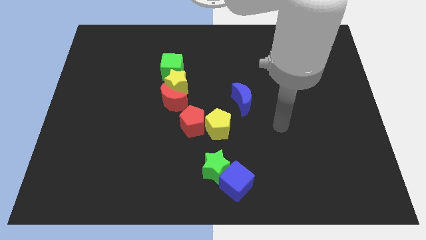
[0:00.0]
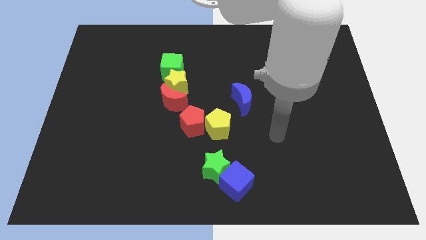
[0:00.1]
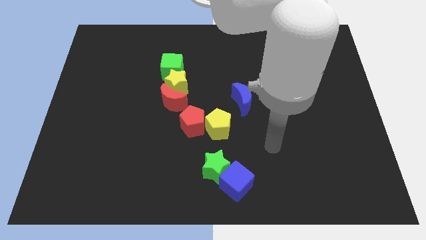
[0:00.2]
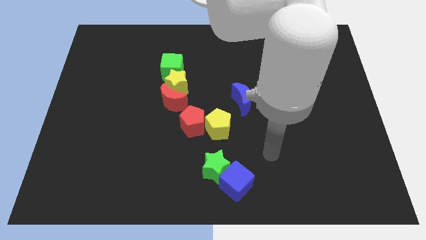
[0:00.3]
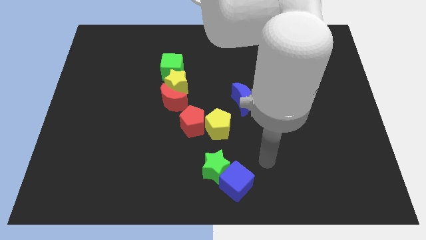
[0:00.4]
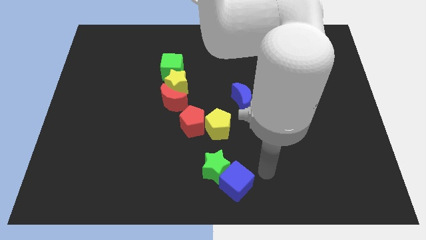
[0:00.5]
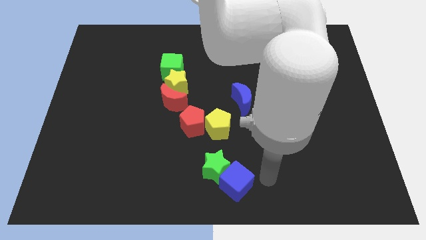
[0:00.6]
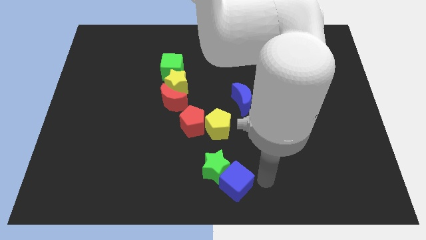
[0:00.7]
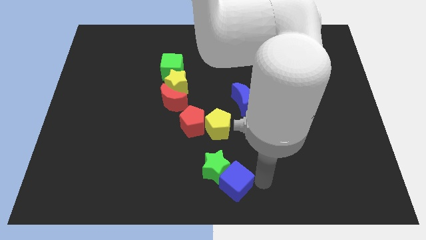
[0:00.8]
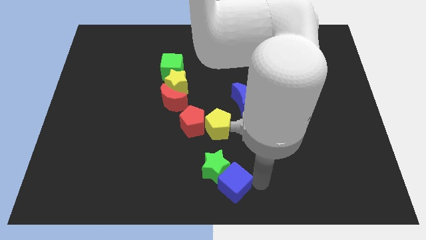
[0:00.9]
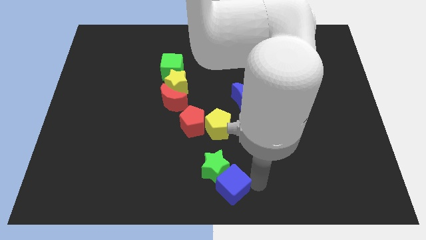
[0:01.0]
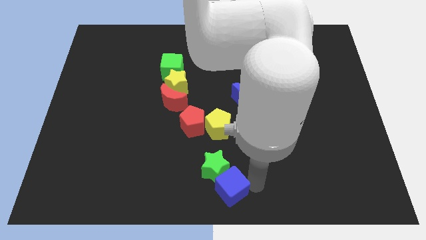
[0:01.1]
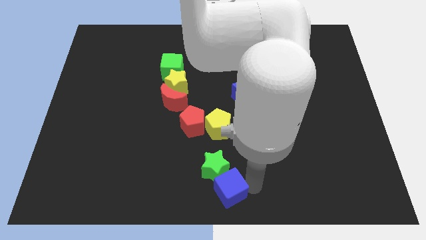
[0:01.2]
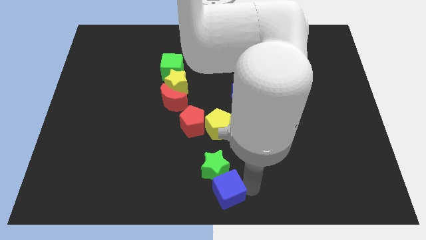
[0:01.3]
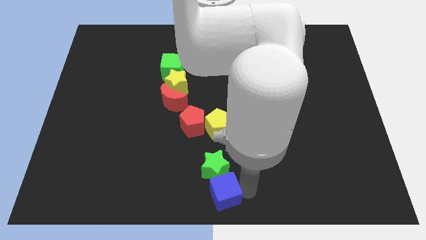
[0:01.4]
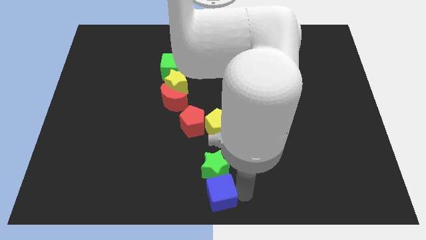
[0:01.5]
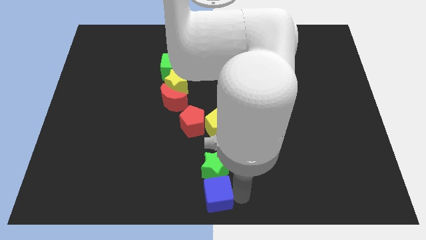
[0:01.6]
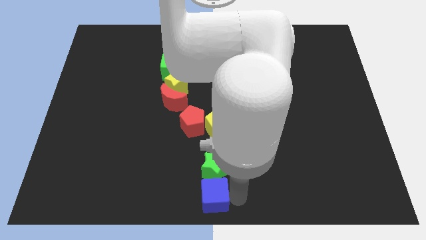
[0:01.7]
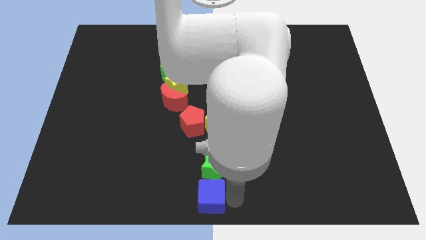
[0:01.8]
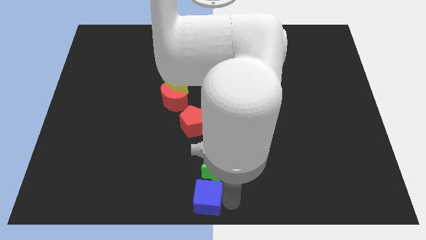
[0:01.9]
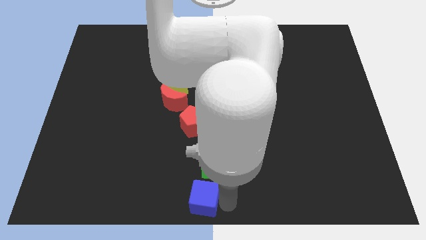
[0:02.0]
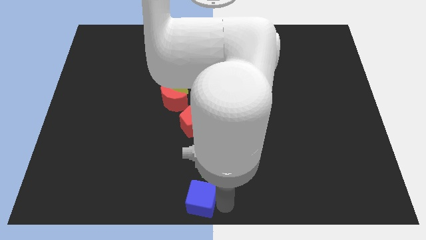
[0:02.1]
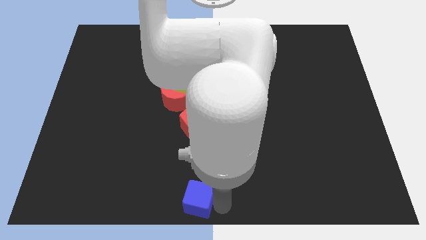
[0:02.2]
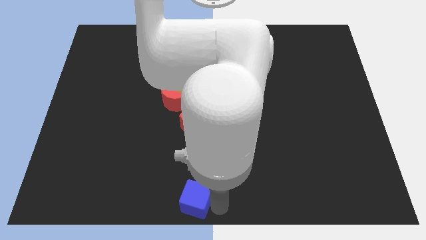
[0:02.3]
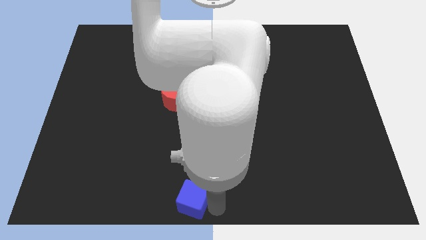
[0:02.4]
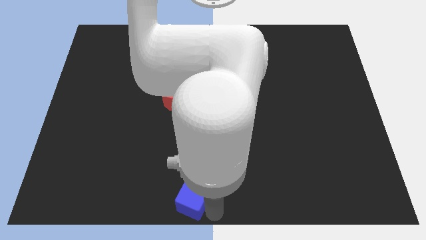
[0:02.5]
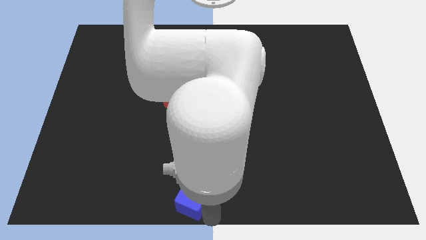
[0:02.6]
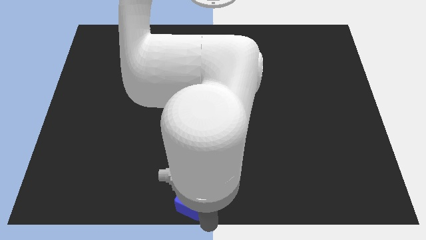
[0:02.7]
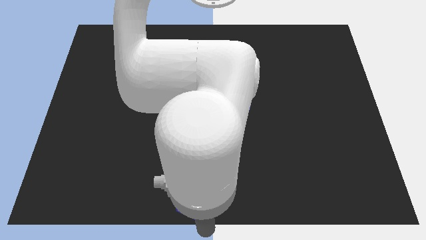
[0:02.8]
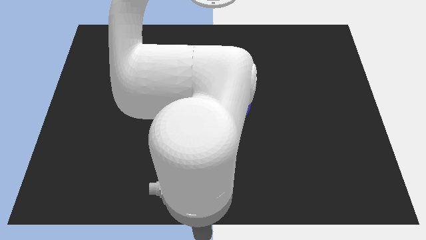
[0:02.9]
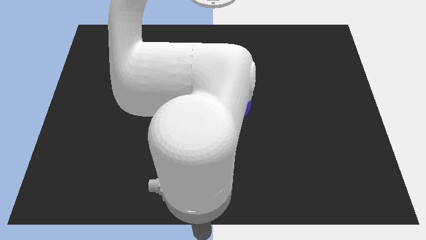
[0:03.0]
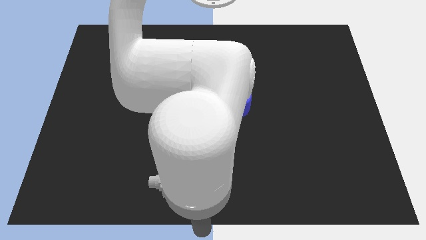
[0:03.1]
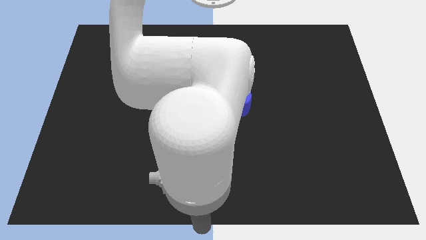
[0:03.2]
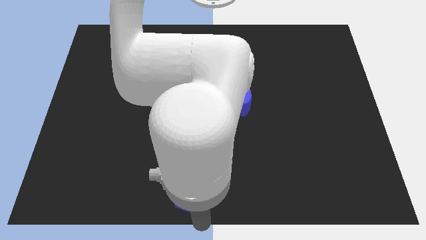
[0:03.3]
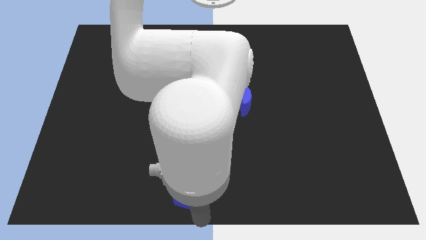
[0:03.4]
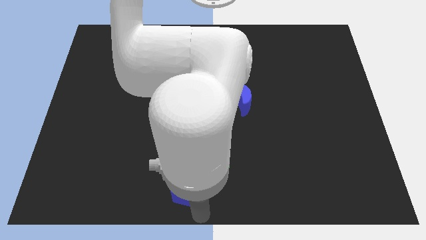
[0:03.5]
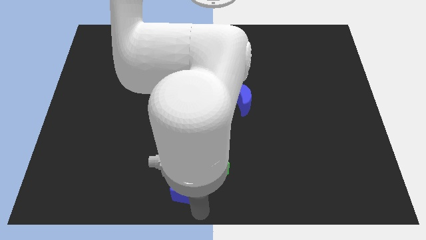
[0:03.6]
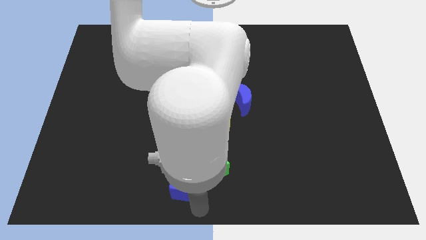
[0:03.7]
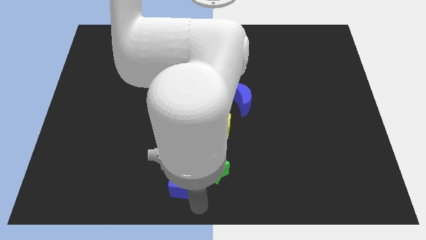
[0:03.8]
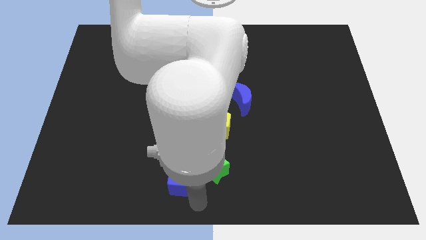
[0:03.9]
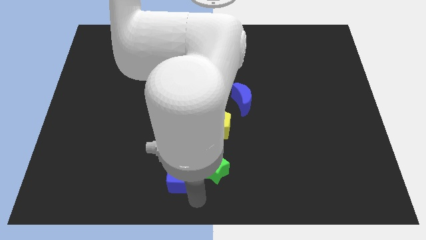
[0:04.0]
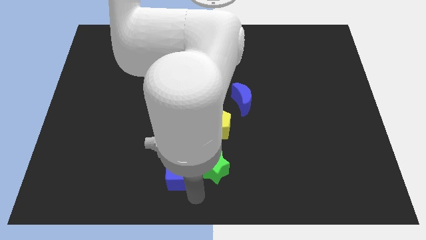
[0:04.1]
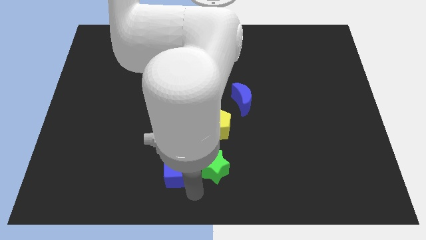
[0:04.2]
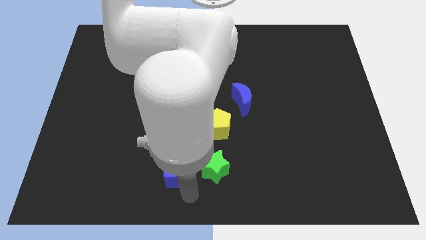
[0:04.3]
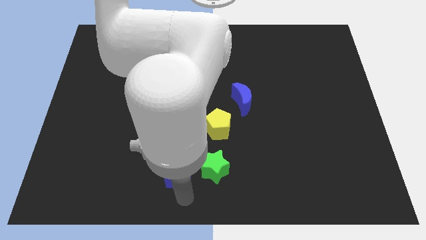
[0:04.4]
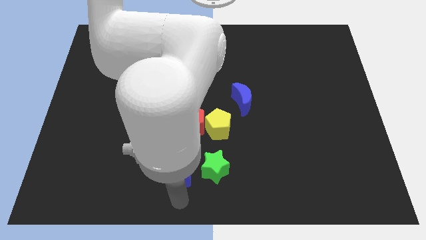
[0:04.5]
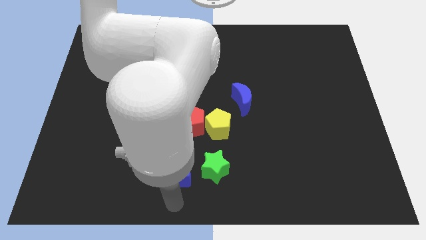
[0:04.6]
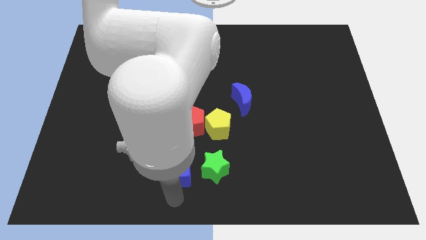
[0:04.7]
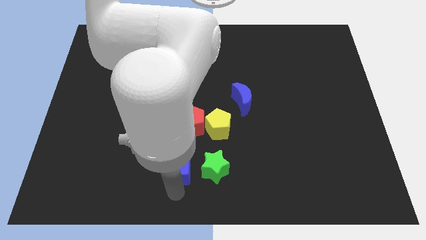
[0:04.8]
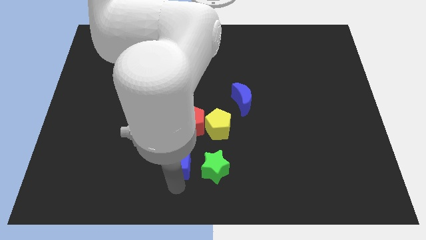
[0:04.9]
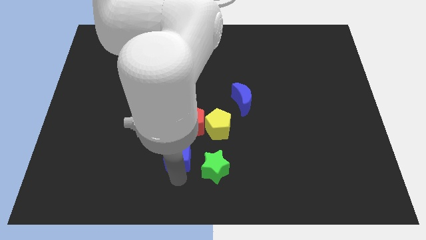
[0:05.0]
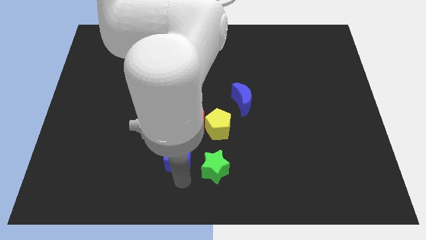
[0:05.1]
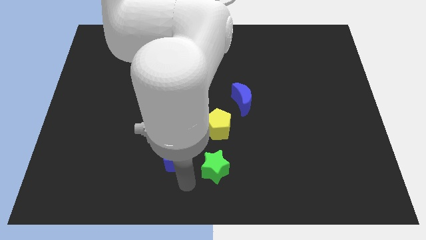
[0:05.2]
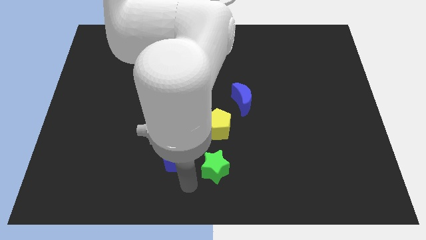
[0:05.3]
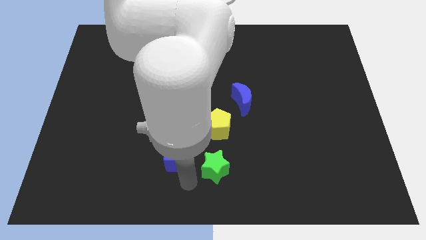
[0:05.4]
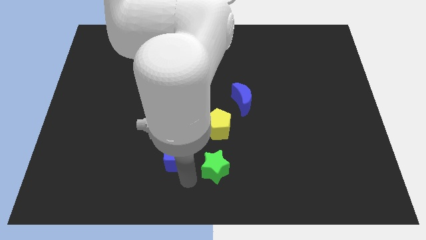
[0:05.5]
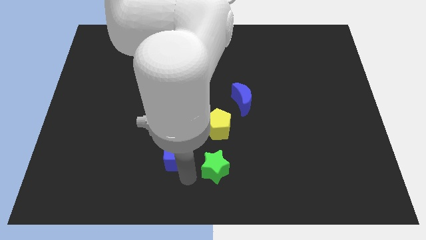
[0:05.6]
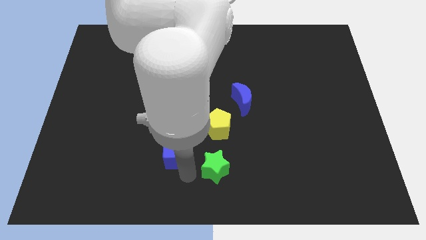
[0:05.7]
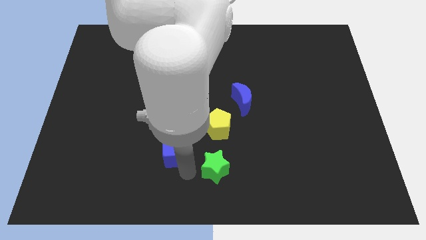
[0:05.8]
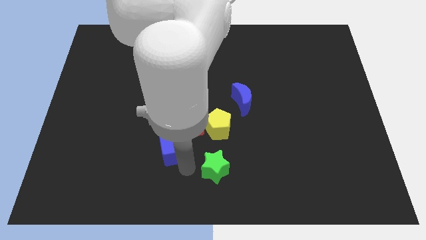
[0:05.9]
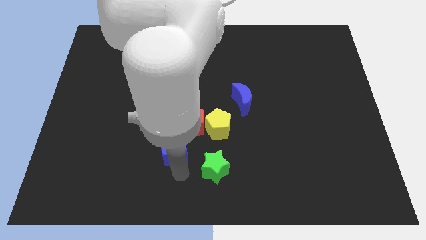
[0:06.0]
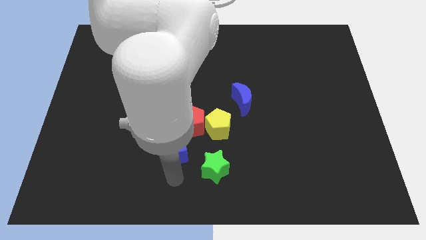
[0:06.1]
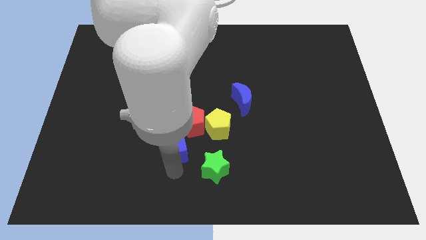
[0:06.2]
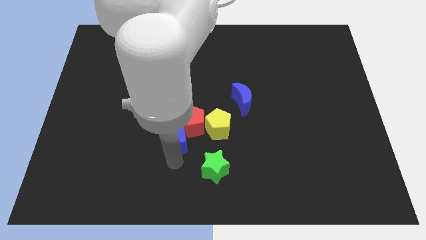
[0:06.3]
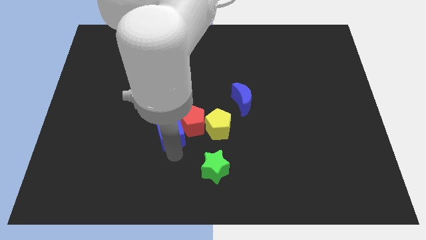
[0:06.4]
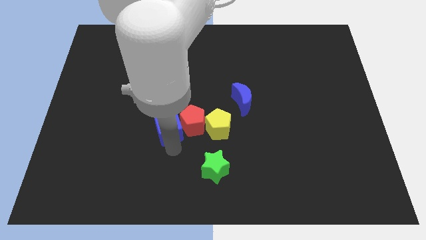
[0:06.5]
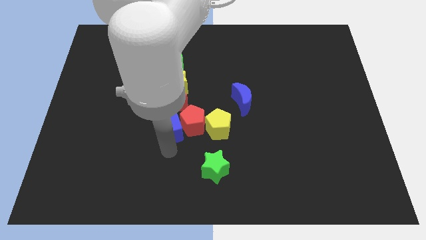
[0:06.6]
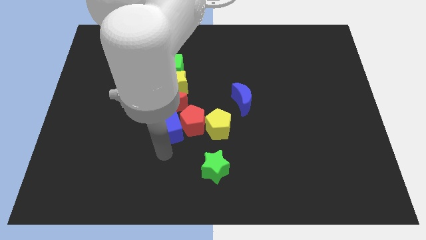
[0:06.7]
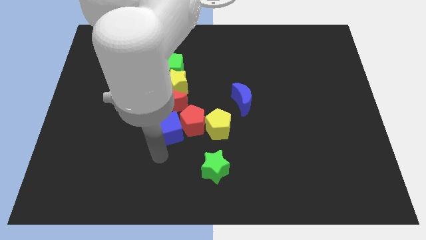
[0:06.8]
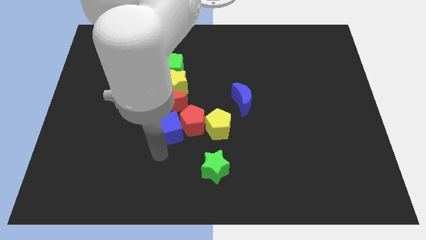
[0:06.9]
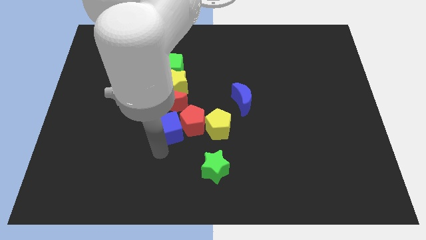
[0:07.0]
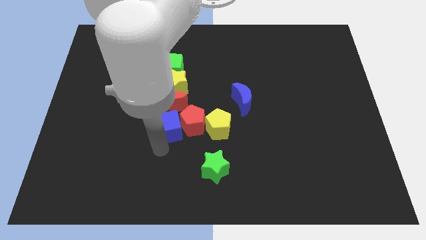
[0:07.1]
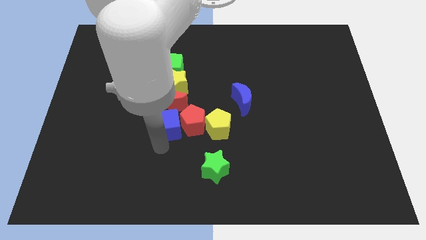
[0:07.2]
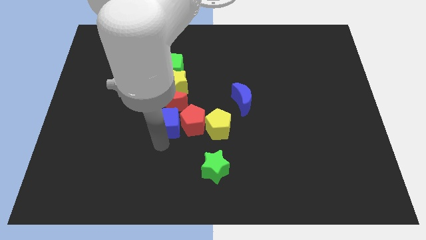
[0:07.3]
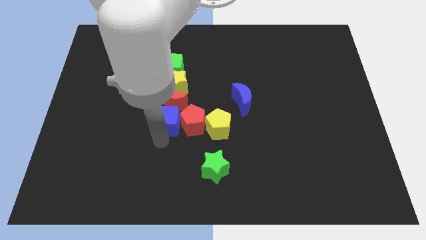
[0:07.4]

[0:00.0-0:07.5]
put the blue cube to the red moon
